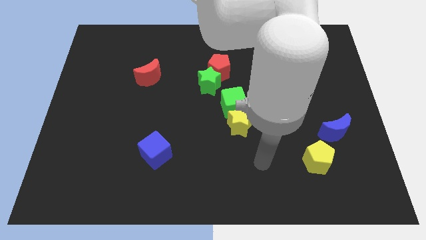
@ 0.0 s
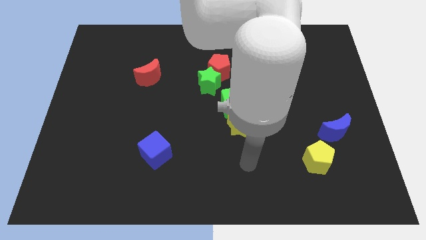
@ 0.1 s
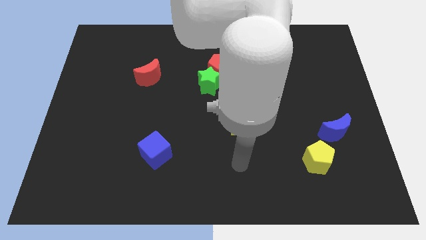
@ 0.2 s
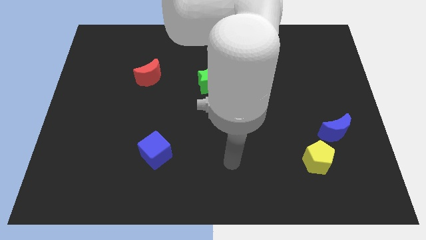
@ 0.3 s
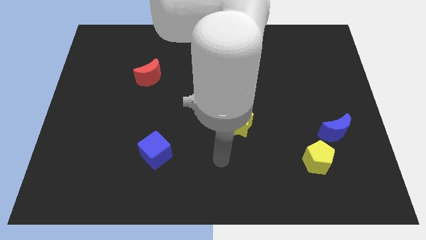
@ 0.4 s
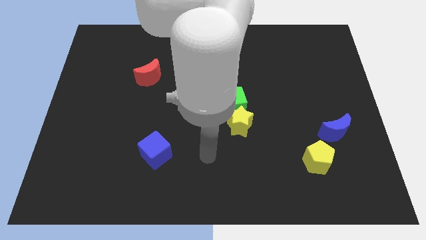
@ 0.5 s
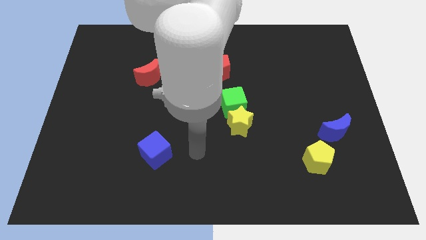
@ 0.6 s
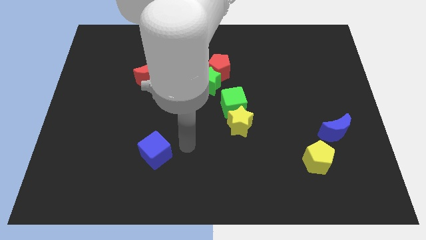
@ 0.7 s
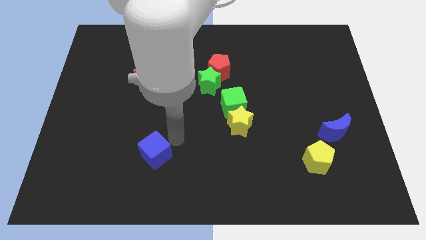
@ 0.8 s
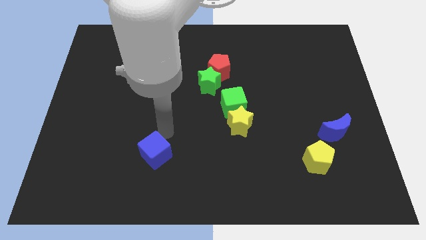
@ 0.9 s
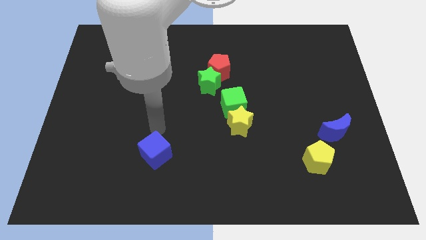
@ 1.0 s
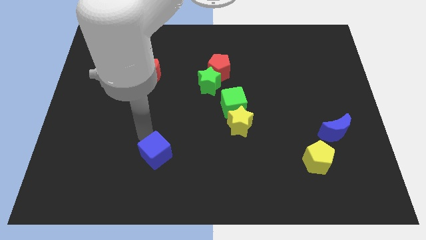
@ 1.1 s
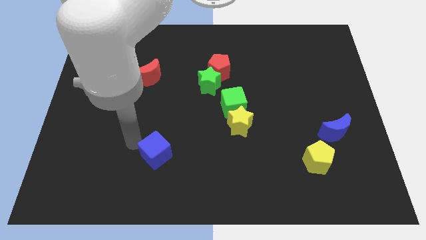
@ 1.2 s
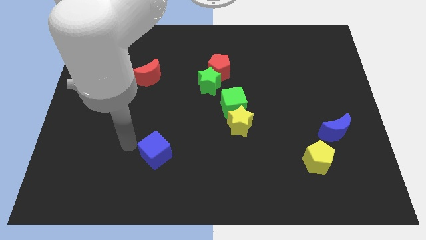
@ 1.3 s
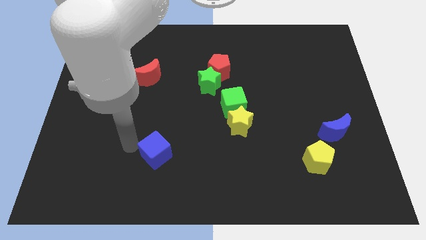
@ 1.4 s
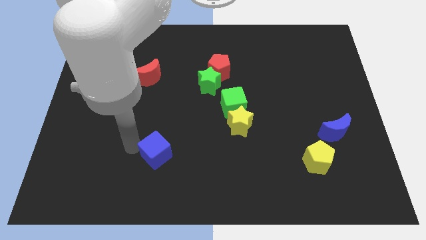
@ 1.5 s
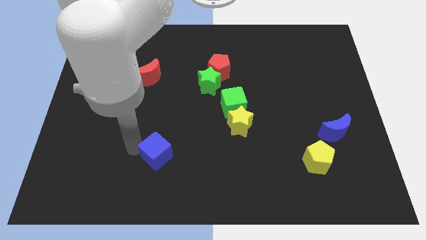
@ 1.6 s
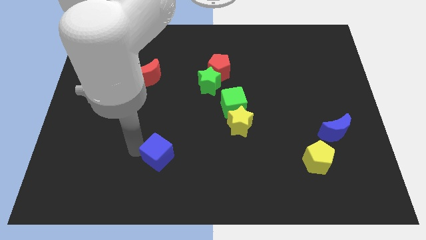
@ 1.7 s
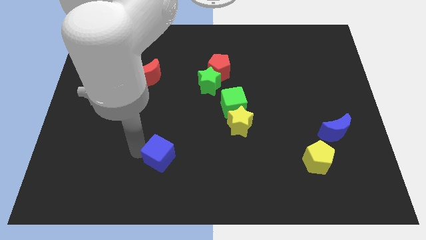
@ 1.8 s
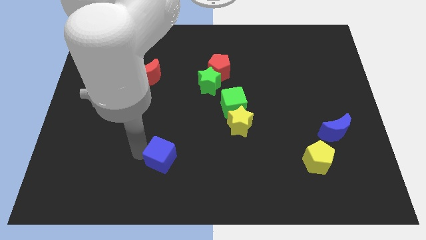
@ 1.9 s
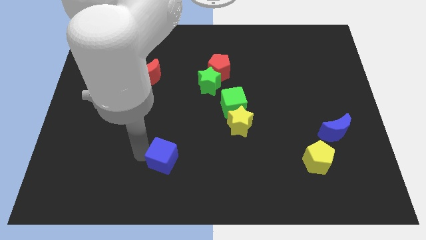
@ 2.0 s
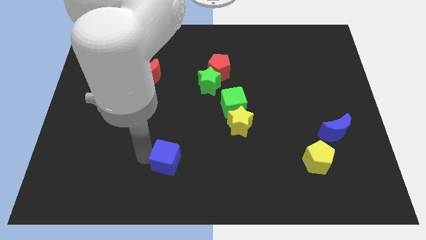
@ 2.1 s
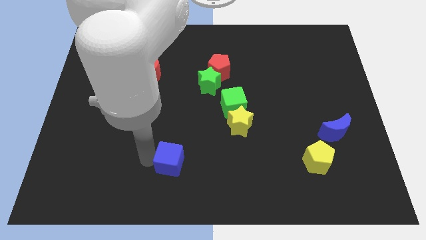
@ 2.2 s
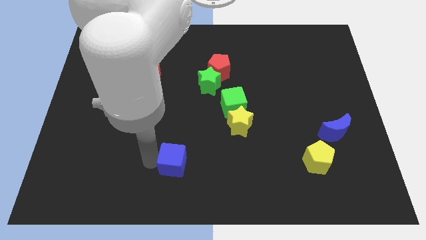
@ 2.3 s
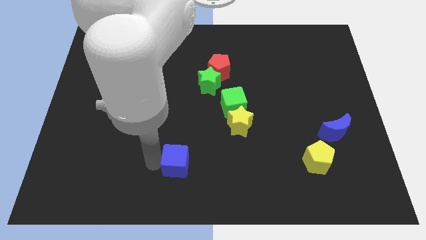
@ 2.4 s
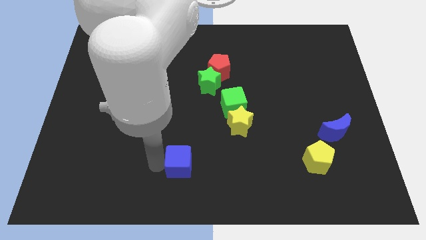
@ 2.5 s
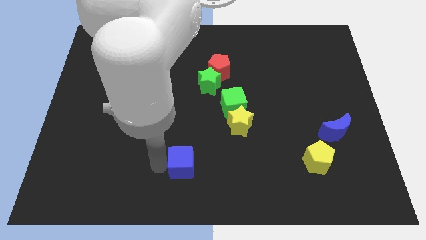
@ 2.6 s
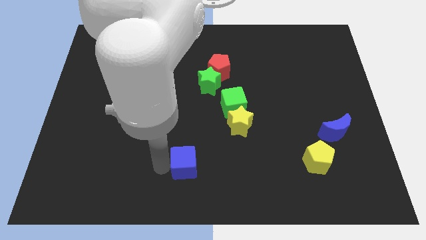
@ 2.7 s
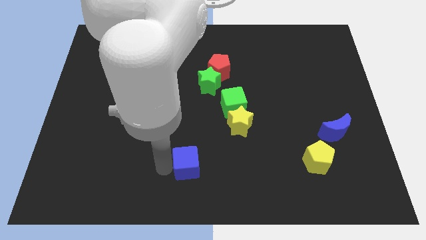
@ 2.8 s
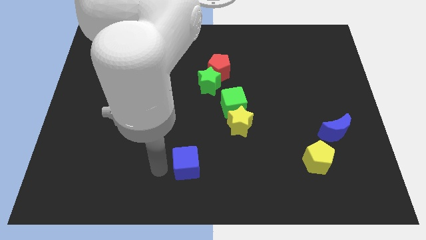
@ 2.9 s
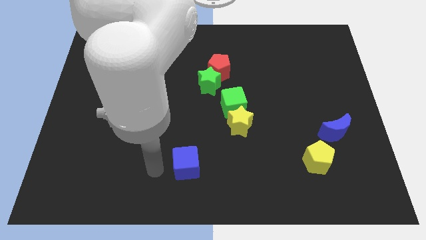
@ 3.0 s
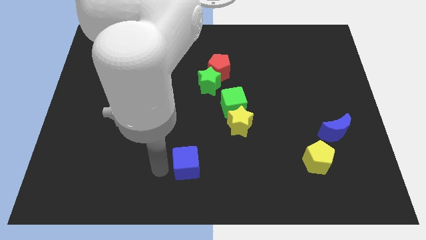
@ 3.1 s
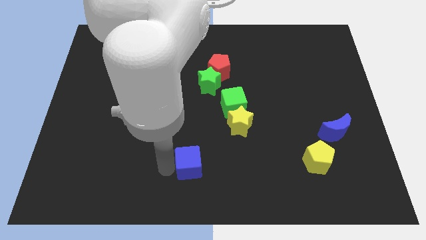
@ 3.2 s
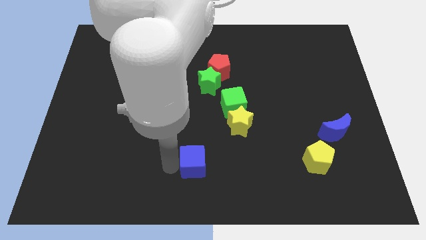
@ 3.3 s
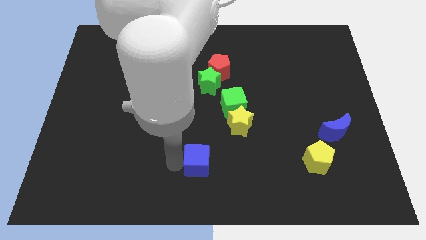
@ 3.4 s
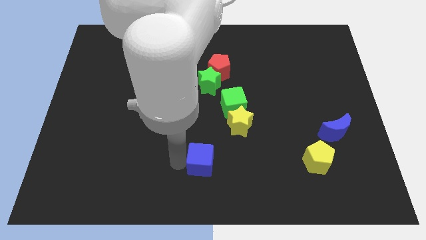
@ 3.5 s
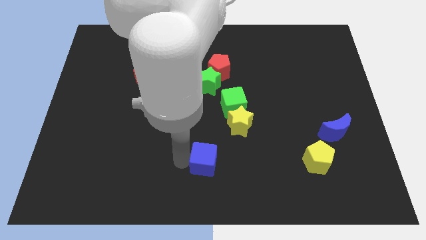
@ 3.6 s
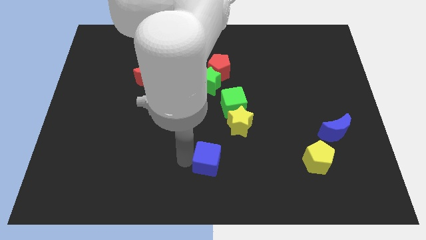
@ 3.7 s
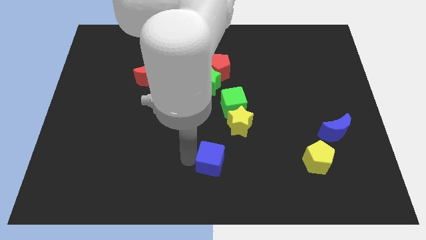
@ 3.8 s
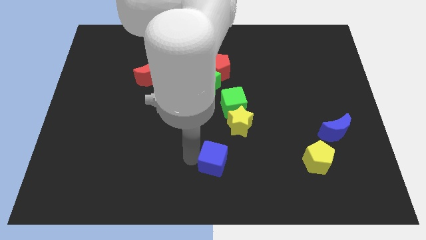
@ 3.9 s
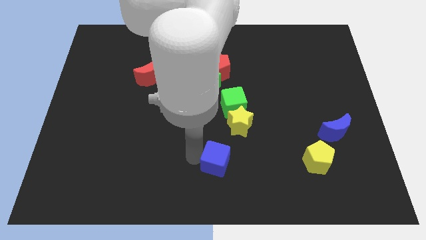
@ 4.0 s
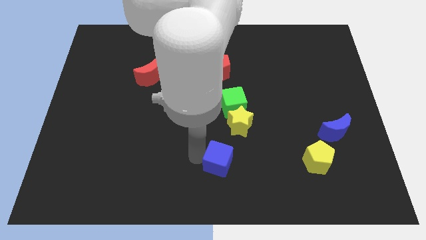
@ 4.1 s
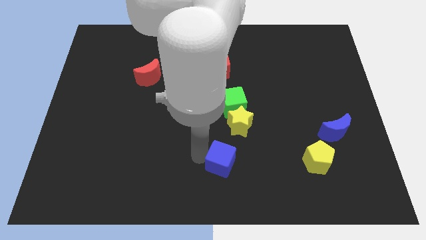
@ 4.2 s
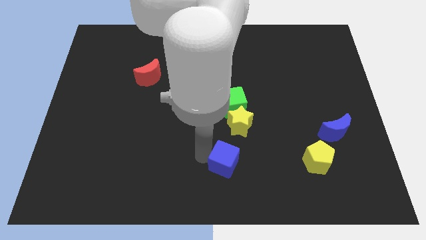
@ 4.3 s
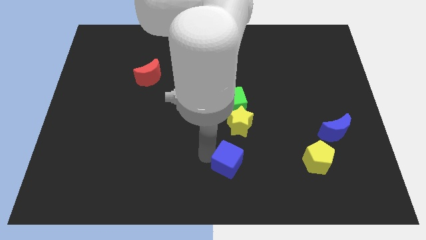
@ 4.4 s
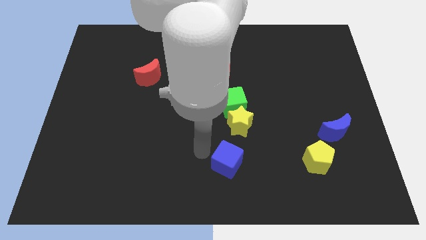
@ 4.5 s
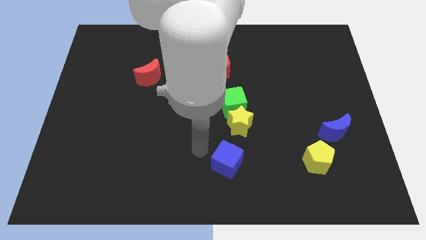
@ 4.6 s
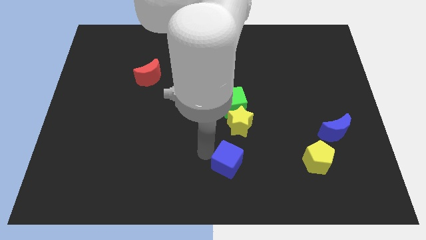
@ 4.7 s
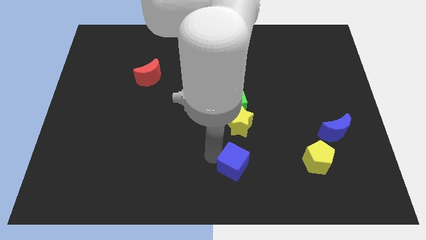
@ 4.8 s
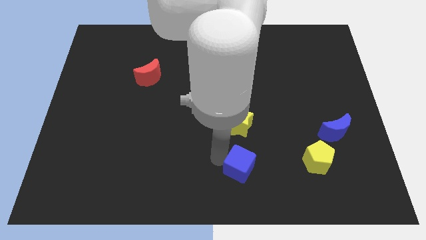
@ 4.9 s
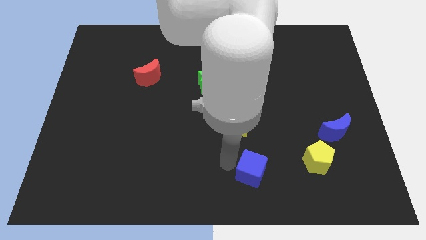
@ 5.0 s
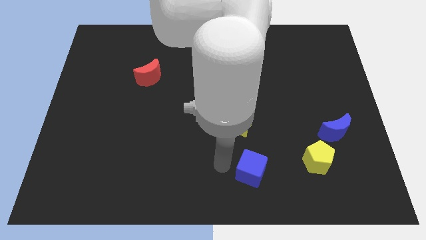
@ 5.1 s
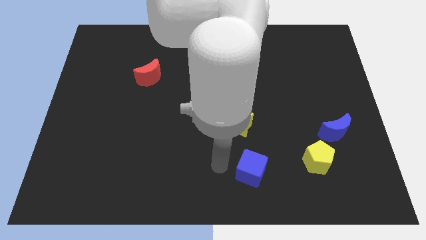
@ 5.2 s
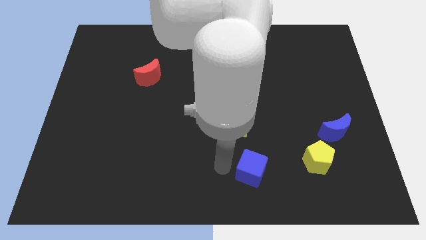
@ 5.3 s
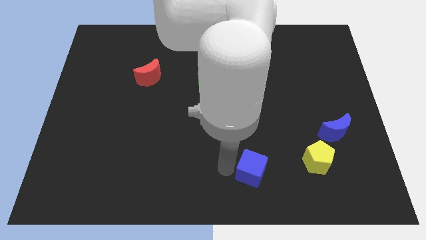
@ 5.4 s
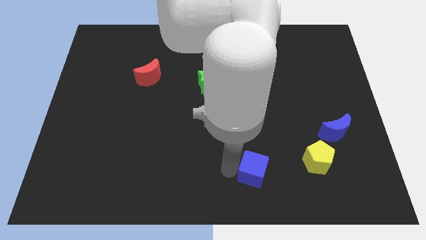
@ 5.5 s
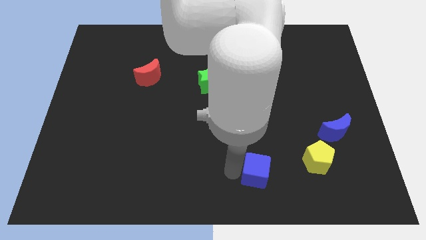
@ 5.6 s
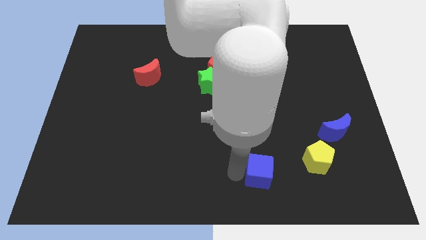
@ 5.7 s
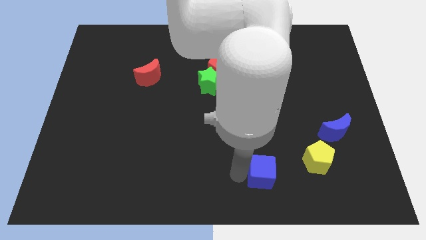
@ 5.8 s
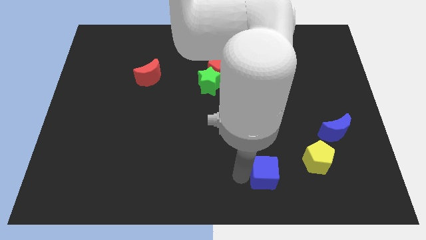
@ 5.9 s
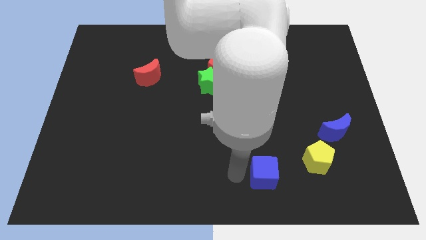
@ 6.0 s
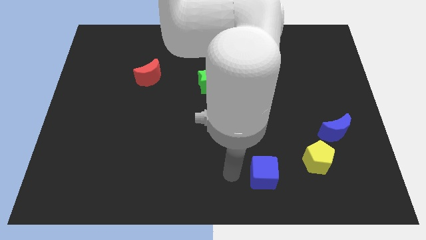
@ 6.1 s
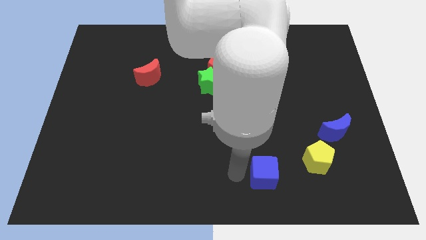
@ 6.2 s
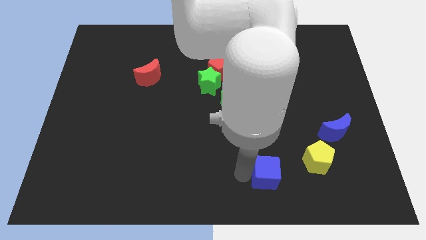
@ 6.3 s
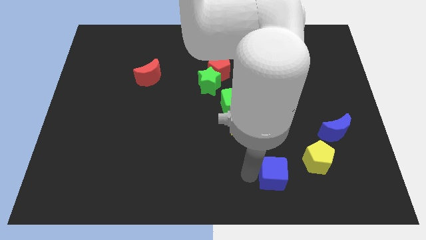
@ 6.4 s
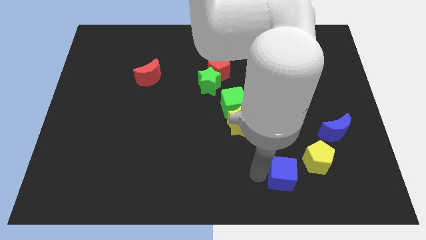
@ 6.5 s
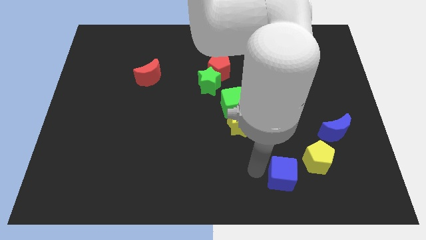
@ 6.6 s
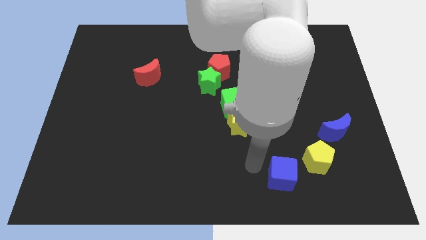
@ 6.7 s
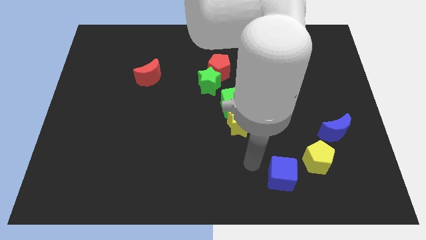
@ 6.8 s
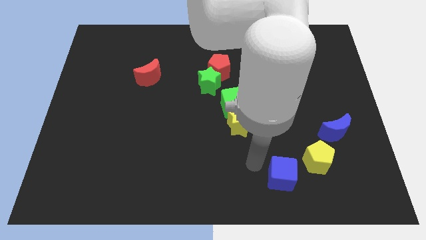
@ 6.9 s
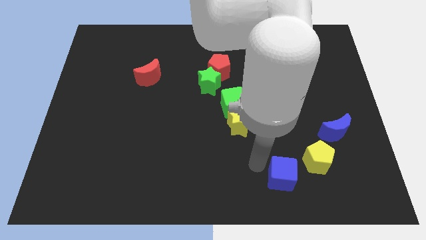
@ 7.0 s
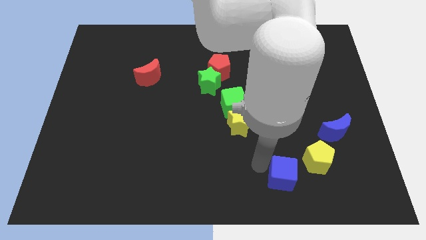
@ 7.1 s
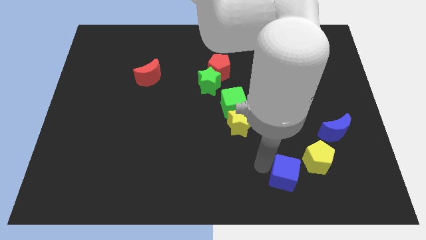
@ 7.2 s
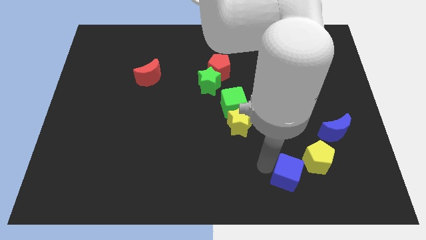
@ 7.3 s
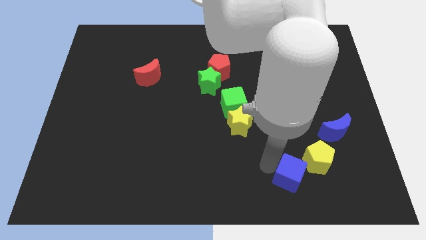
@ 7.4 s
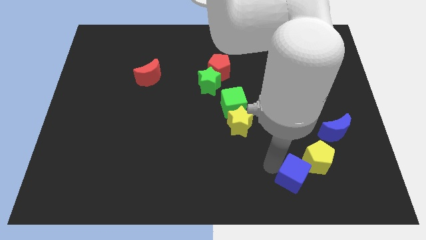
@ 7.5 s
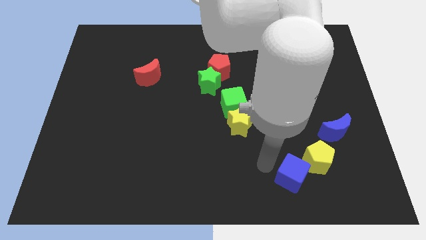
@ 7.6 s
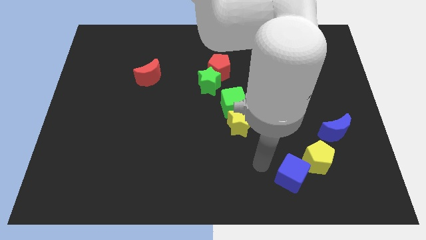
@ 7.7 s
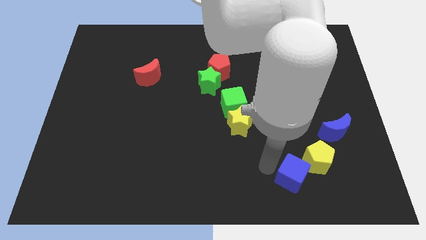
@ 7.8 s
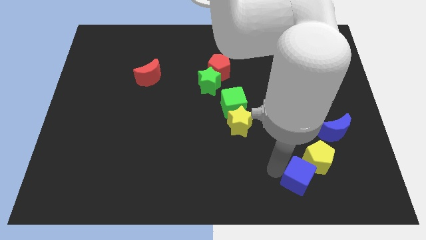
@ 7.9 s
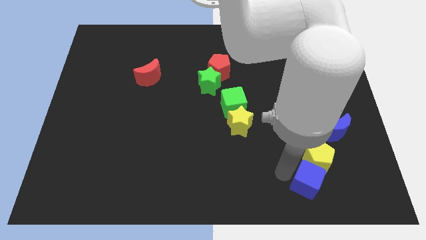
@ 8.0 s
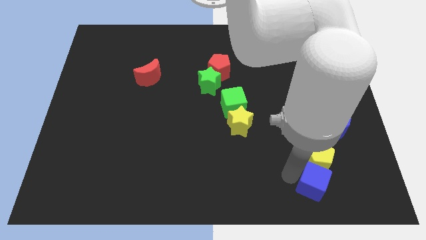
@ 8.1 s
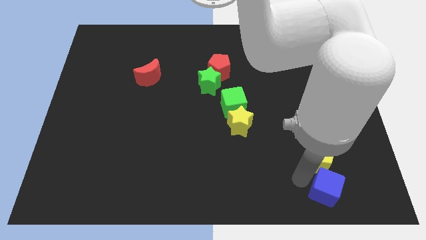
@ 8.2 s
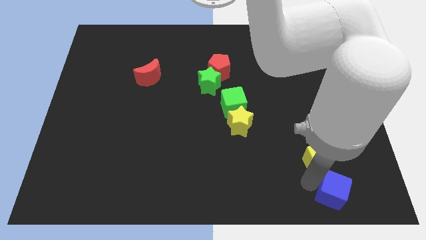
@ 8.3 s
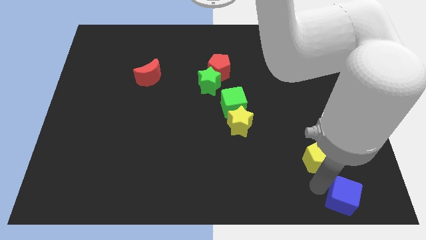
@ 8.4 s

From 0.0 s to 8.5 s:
move the blue cube to the bottom right
